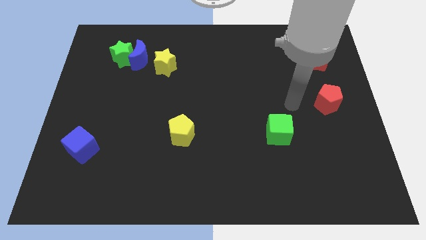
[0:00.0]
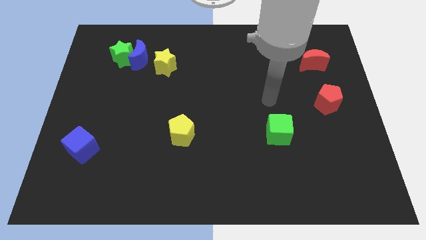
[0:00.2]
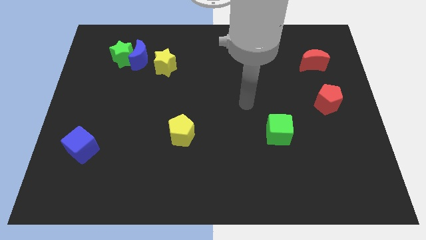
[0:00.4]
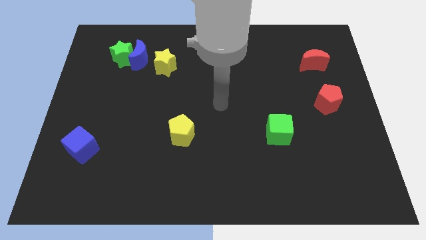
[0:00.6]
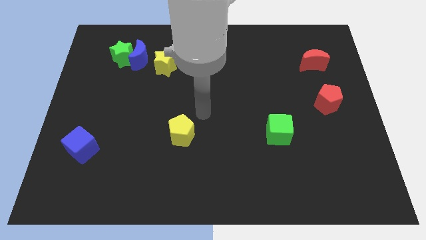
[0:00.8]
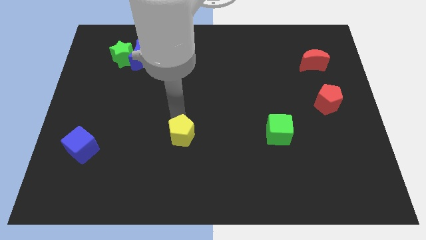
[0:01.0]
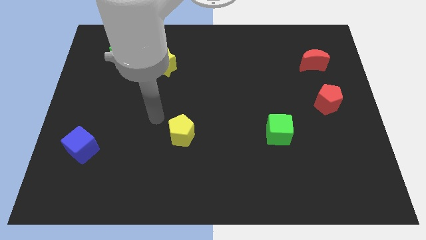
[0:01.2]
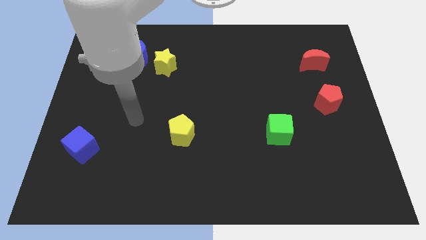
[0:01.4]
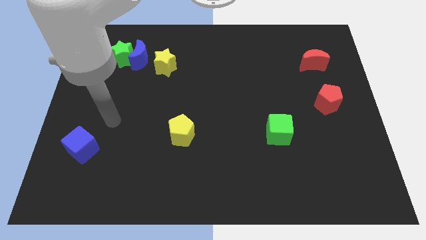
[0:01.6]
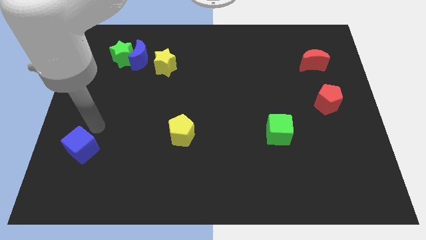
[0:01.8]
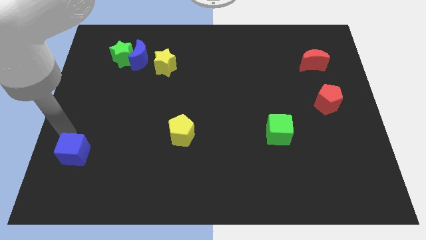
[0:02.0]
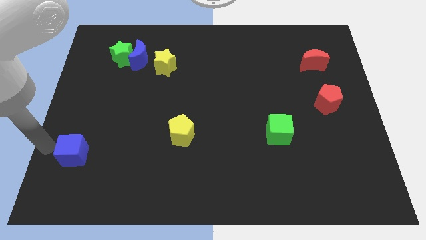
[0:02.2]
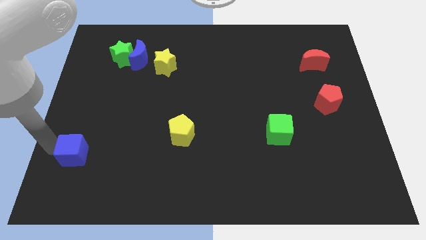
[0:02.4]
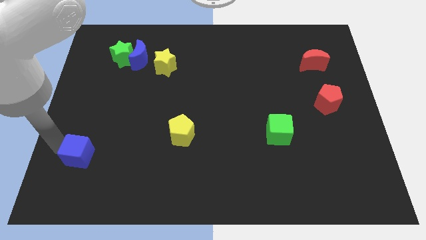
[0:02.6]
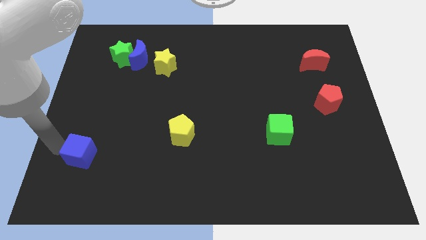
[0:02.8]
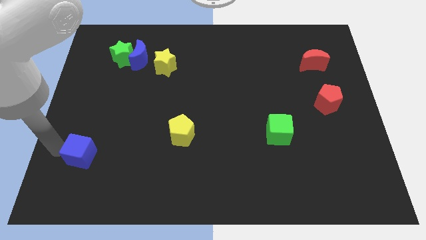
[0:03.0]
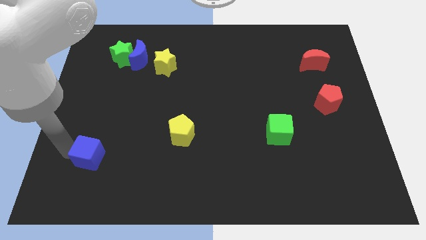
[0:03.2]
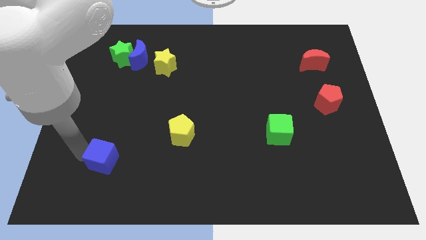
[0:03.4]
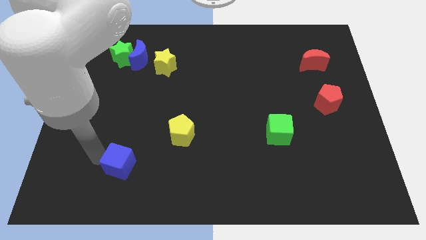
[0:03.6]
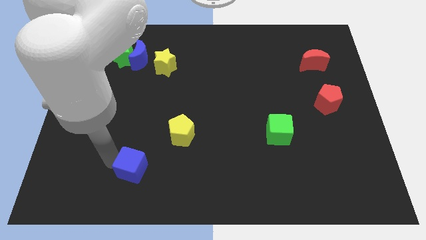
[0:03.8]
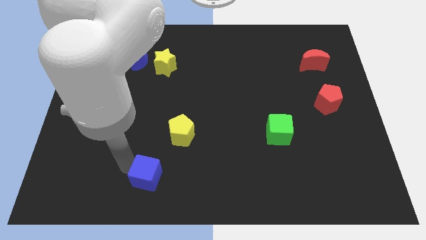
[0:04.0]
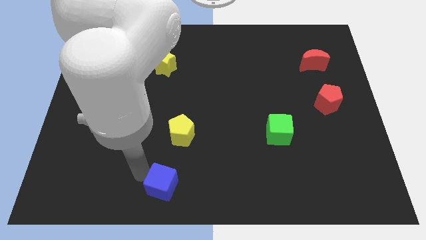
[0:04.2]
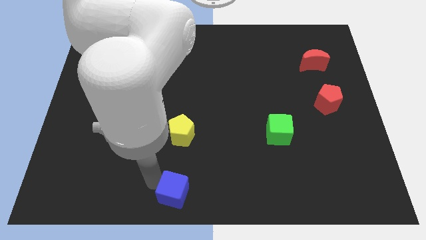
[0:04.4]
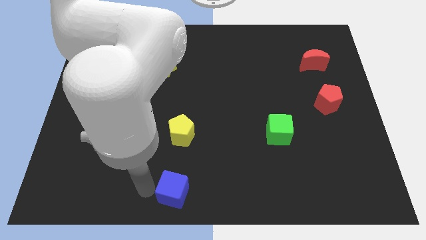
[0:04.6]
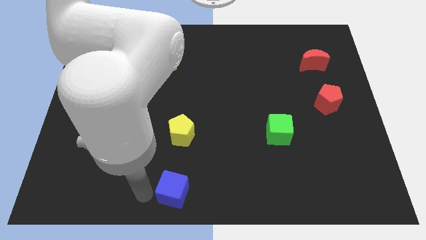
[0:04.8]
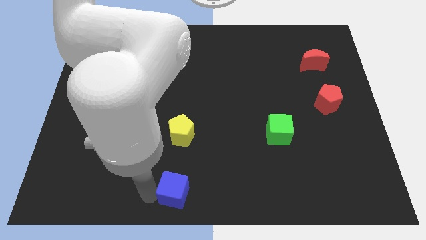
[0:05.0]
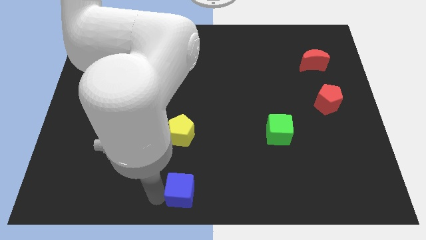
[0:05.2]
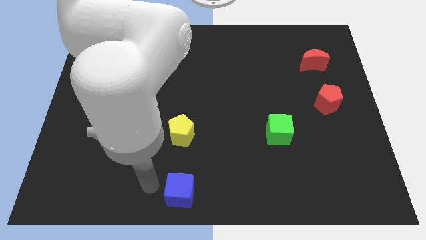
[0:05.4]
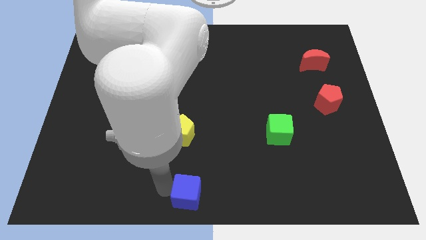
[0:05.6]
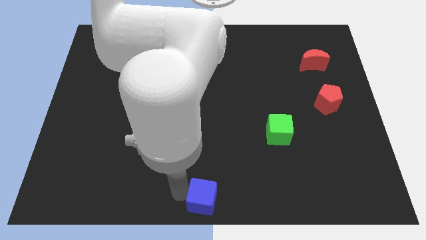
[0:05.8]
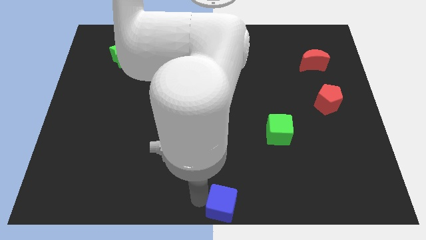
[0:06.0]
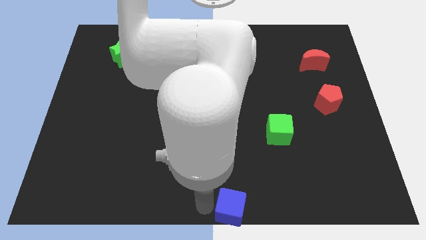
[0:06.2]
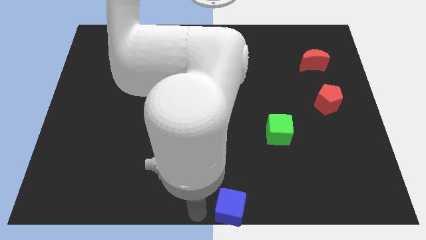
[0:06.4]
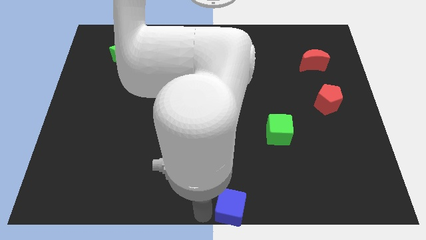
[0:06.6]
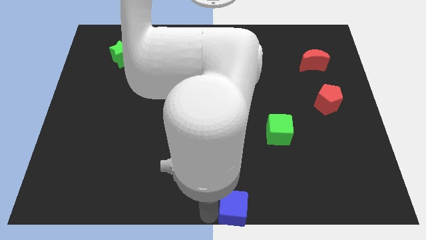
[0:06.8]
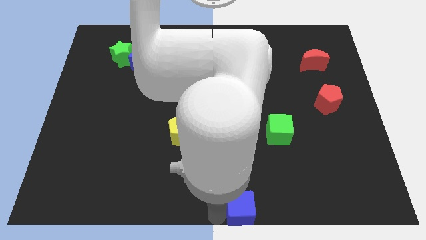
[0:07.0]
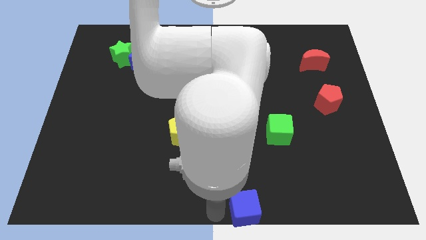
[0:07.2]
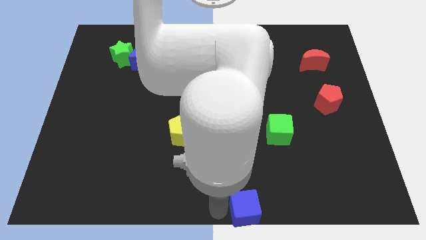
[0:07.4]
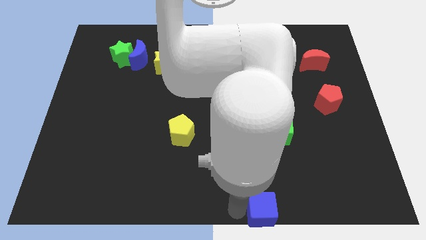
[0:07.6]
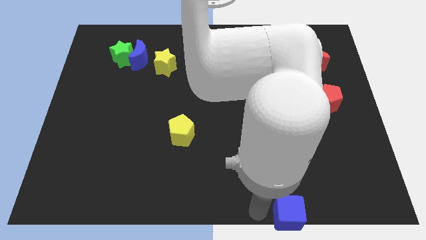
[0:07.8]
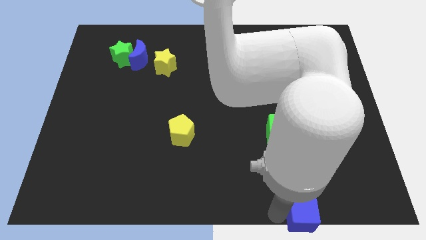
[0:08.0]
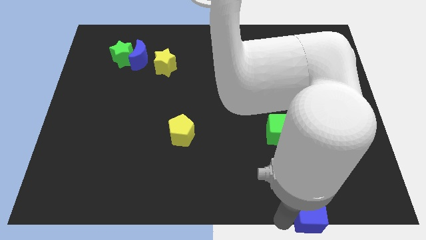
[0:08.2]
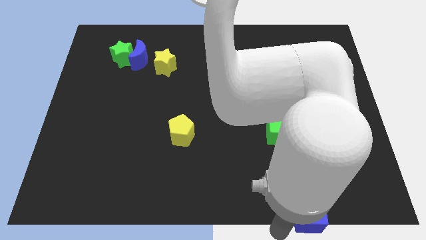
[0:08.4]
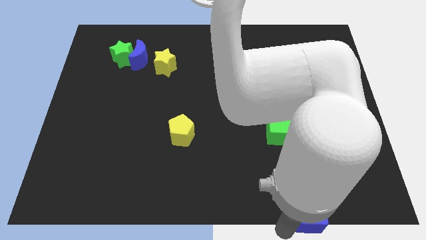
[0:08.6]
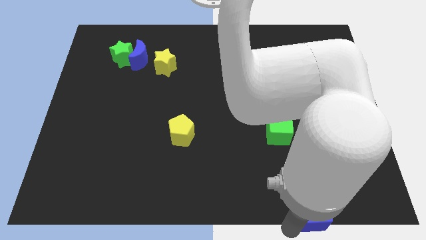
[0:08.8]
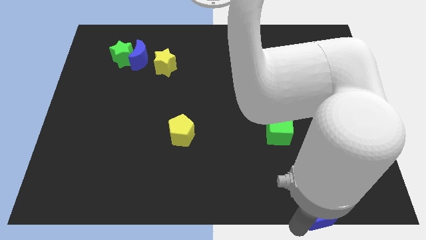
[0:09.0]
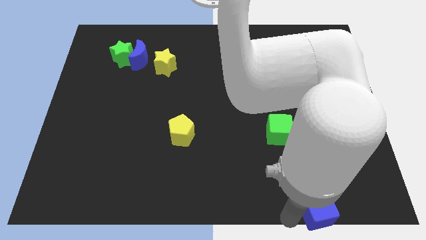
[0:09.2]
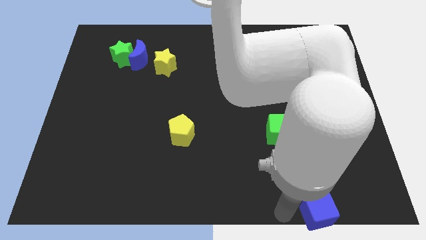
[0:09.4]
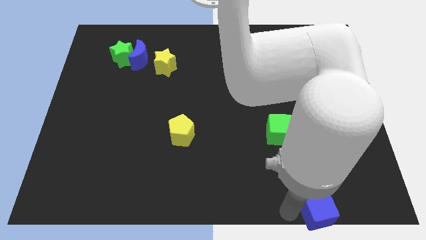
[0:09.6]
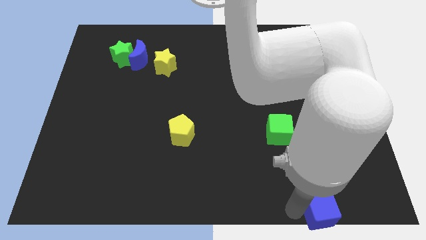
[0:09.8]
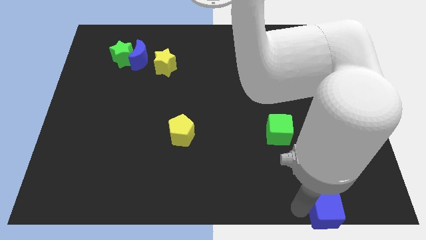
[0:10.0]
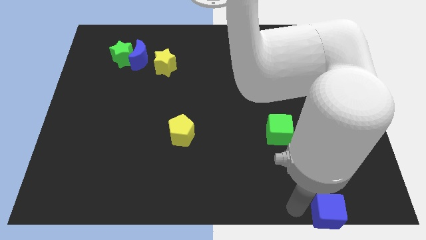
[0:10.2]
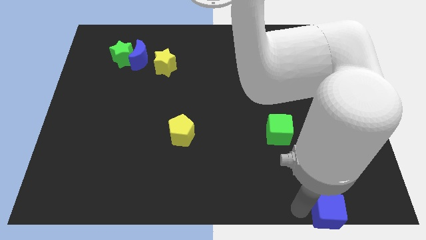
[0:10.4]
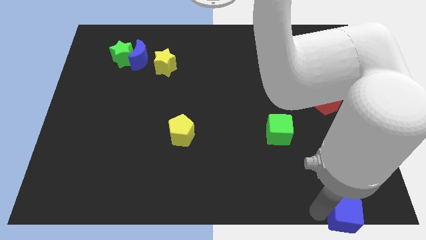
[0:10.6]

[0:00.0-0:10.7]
put the blue cube to the bottom right

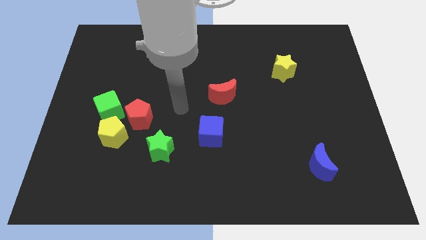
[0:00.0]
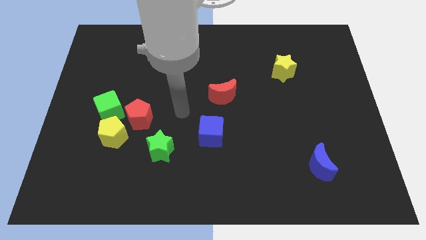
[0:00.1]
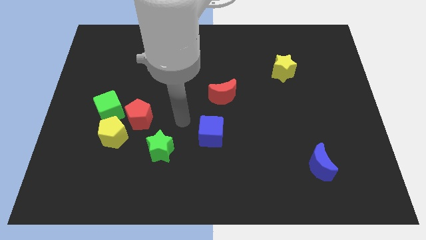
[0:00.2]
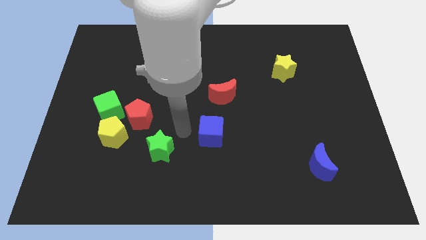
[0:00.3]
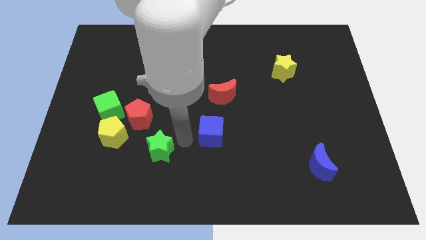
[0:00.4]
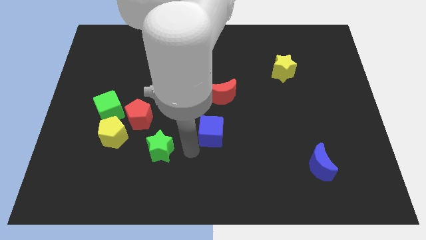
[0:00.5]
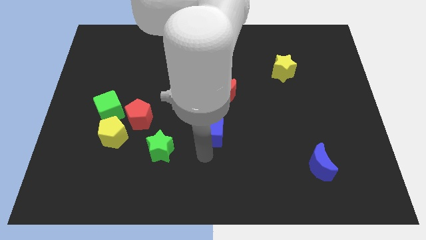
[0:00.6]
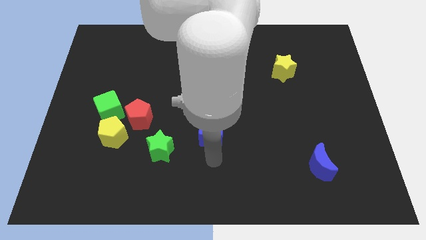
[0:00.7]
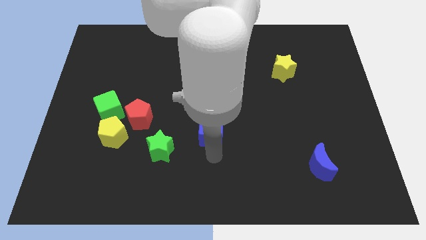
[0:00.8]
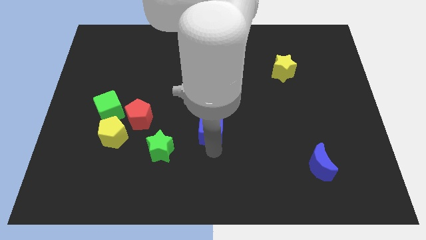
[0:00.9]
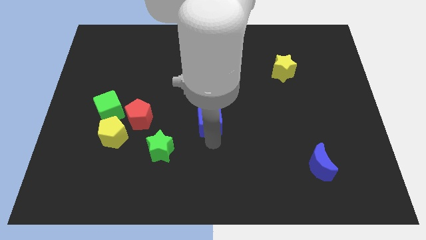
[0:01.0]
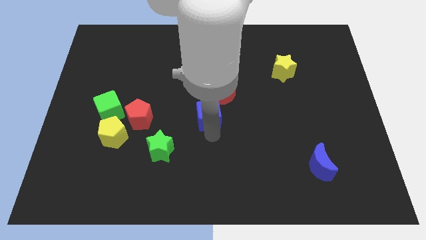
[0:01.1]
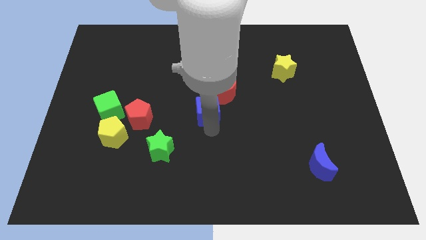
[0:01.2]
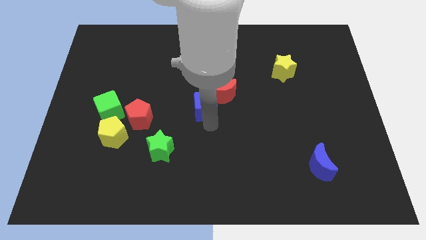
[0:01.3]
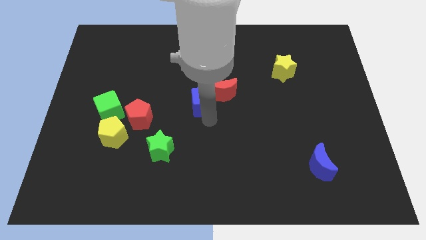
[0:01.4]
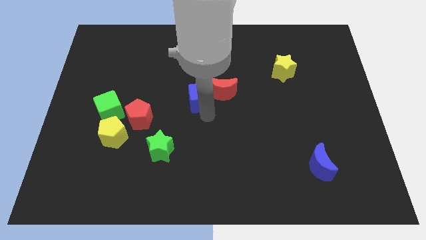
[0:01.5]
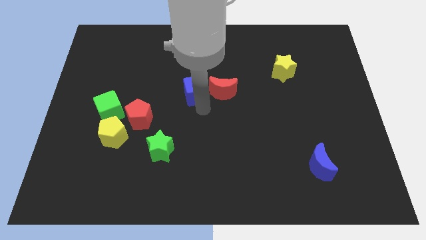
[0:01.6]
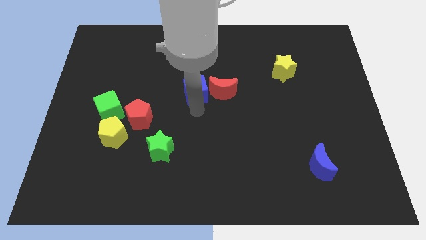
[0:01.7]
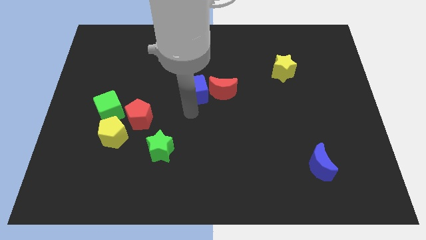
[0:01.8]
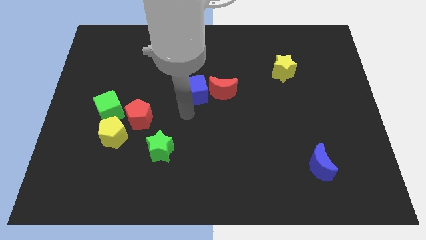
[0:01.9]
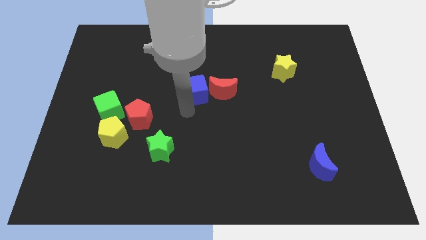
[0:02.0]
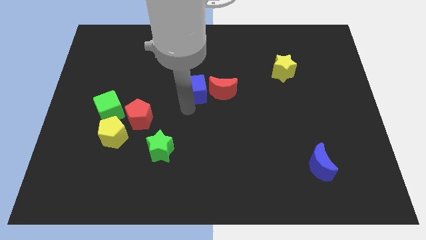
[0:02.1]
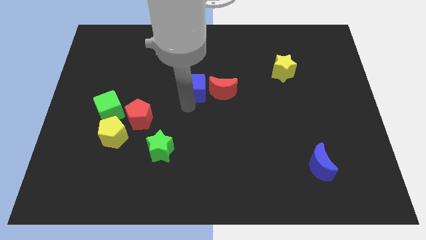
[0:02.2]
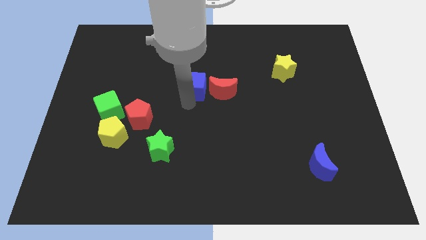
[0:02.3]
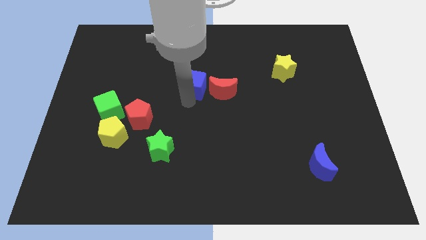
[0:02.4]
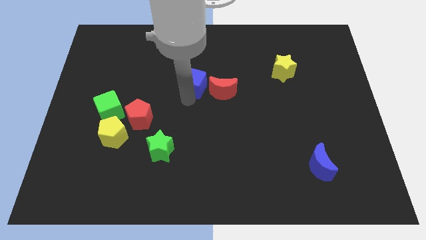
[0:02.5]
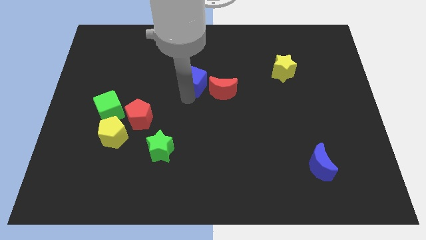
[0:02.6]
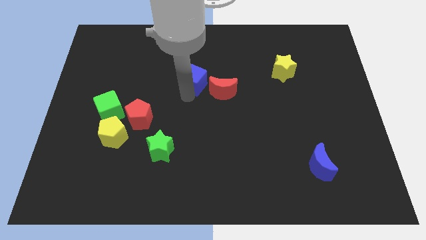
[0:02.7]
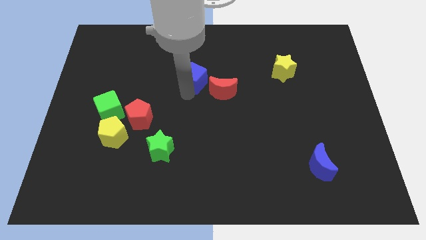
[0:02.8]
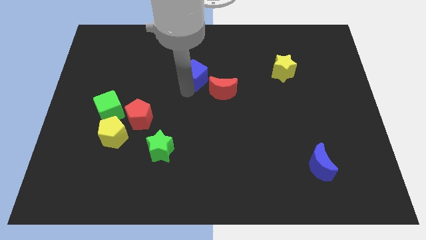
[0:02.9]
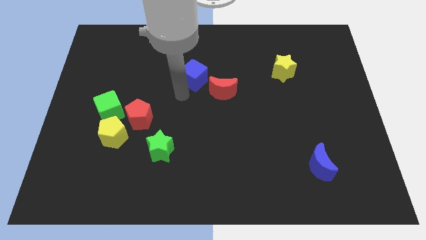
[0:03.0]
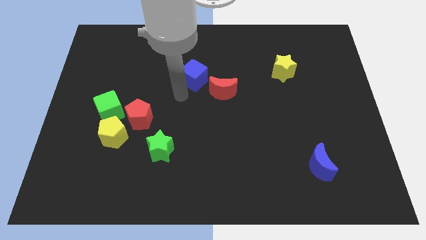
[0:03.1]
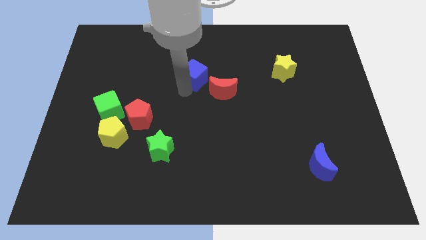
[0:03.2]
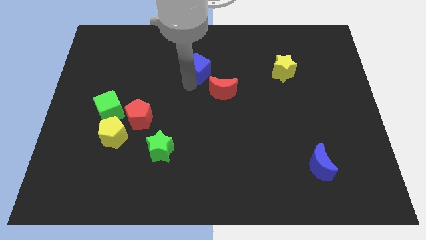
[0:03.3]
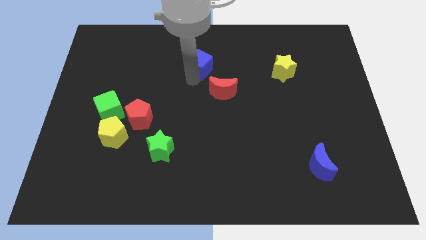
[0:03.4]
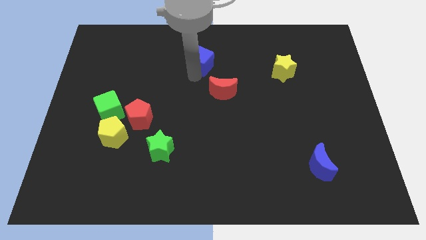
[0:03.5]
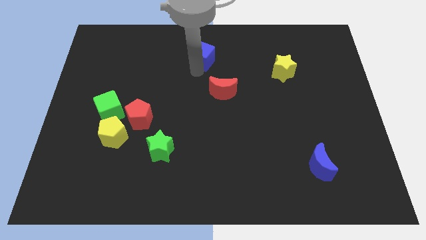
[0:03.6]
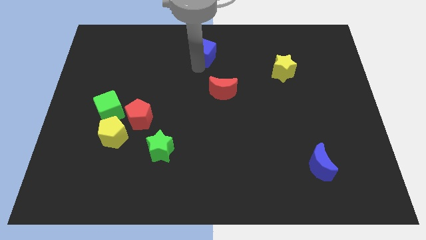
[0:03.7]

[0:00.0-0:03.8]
slide the blue cube to the towards your base
